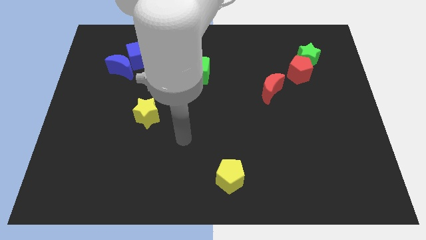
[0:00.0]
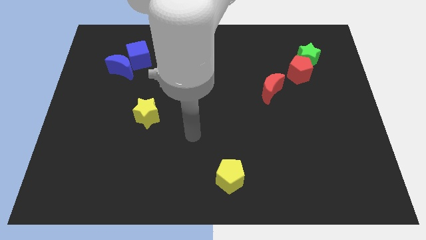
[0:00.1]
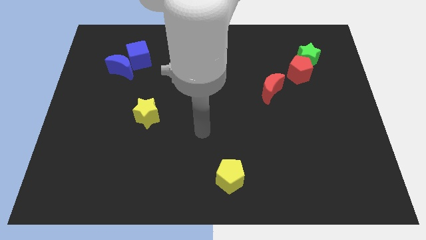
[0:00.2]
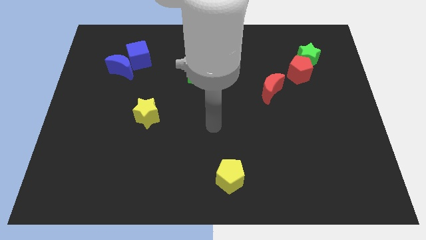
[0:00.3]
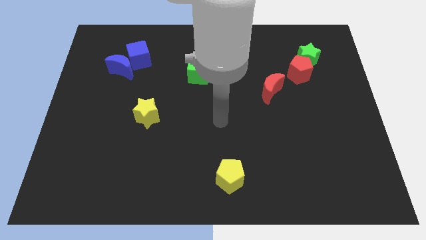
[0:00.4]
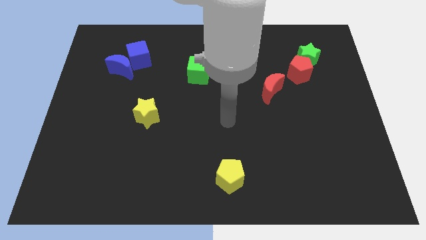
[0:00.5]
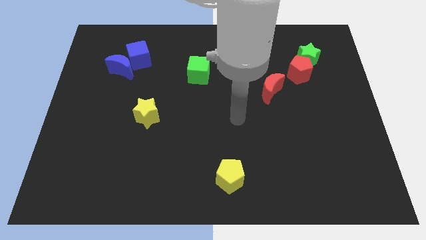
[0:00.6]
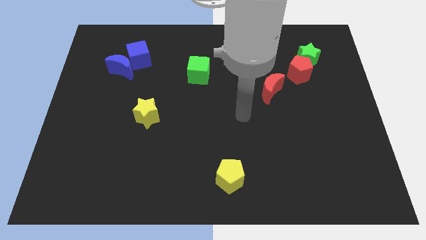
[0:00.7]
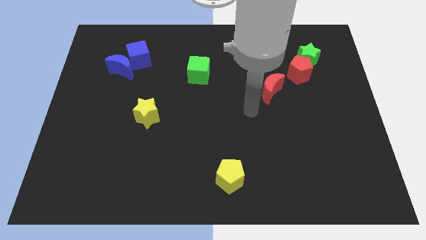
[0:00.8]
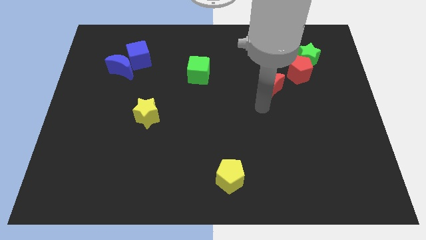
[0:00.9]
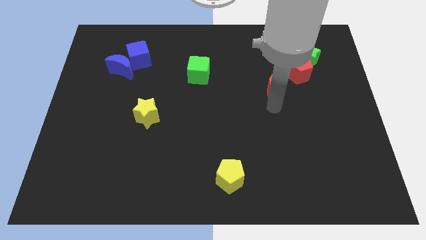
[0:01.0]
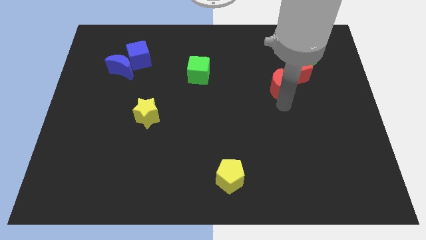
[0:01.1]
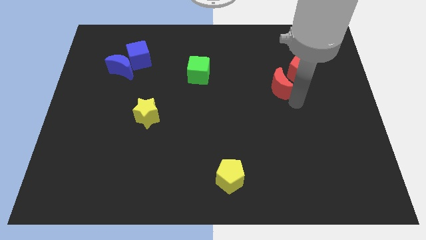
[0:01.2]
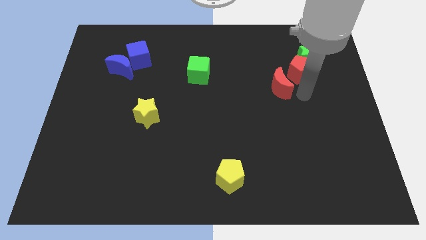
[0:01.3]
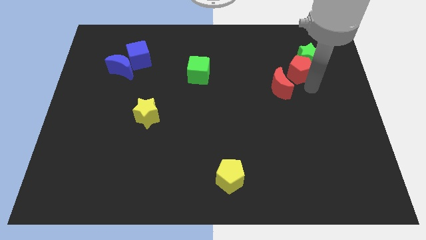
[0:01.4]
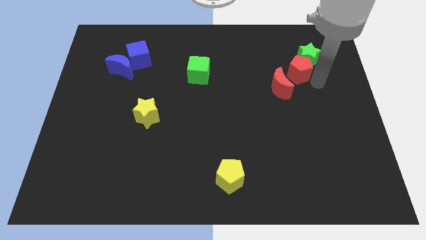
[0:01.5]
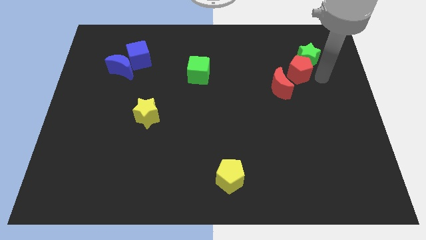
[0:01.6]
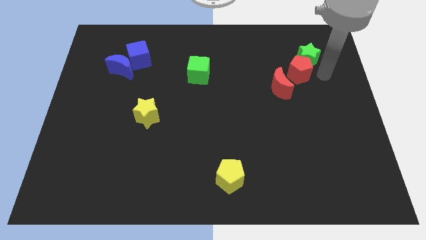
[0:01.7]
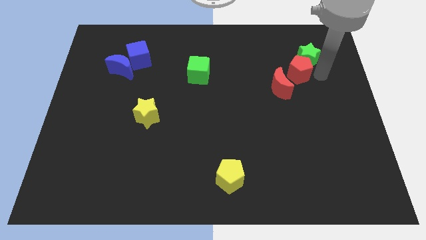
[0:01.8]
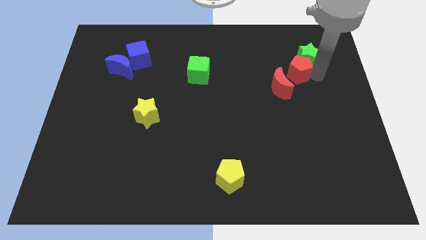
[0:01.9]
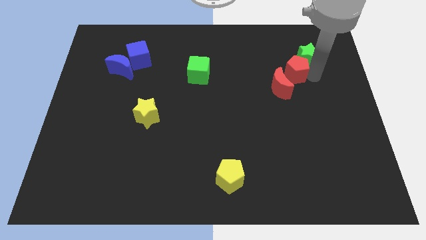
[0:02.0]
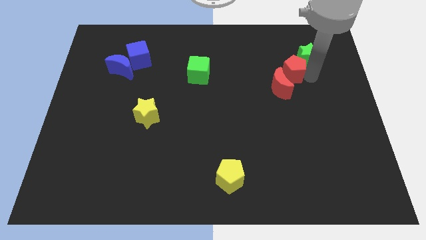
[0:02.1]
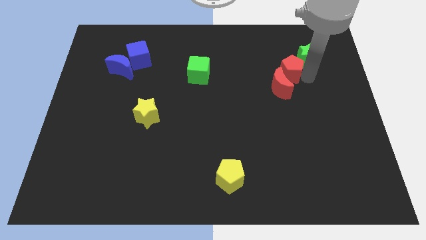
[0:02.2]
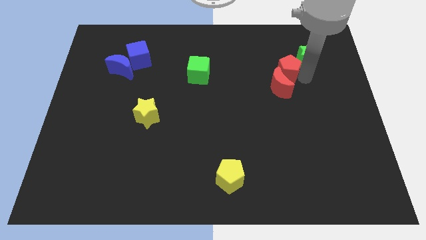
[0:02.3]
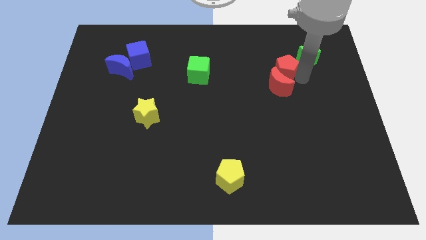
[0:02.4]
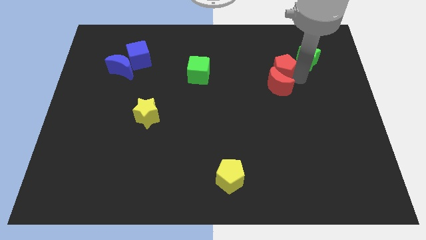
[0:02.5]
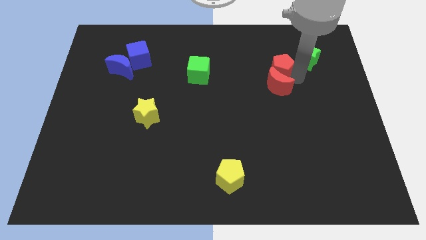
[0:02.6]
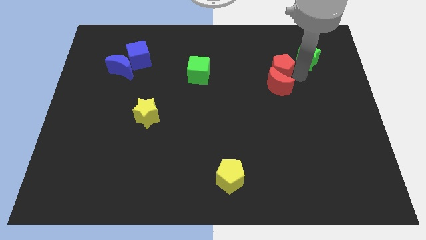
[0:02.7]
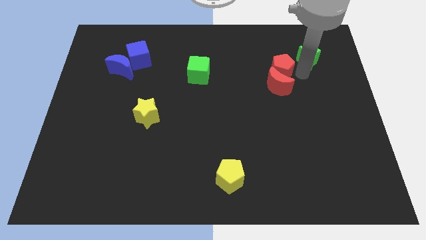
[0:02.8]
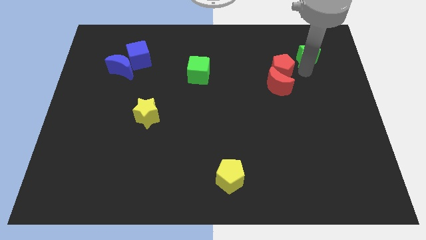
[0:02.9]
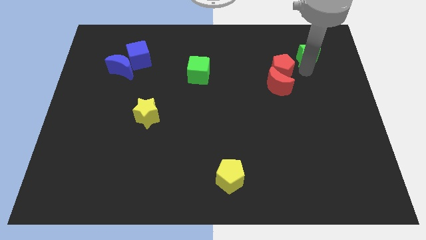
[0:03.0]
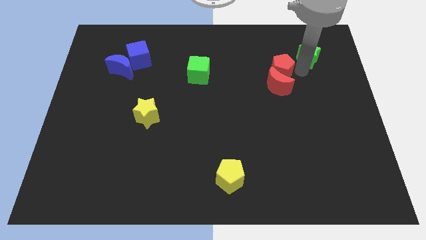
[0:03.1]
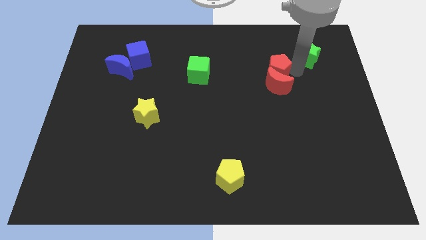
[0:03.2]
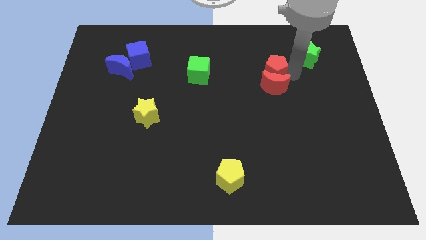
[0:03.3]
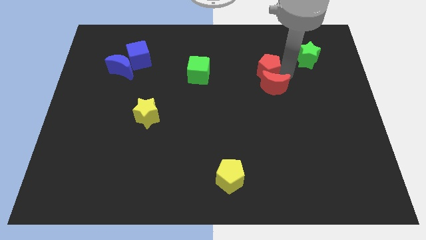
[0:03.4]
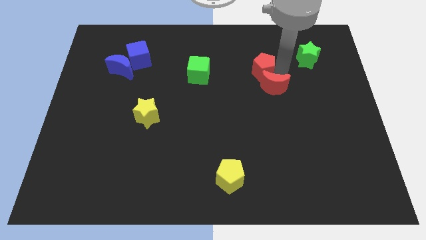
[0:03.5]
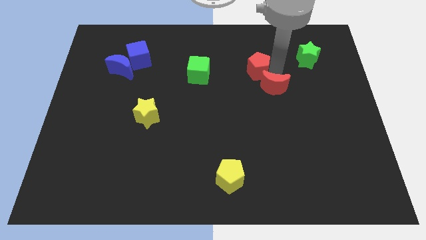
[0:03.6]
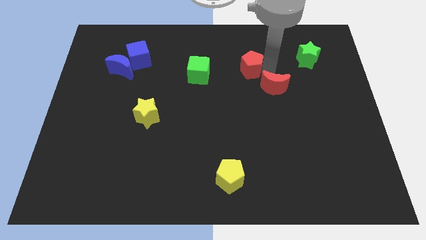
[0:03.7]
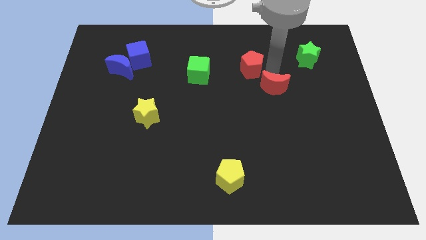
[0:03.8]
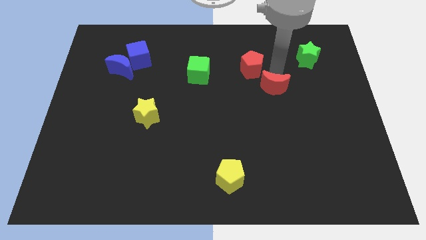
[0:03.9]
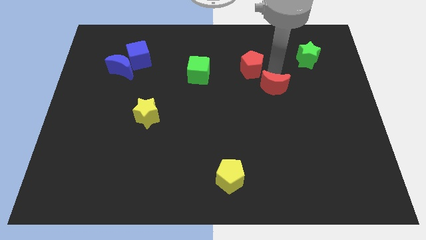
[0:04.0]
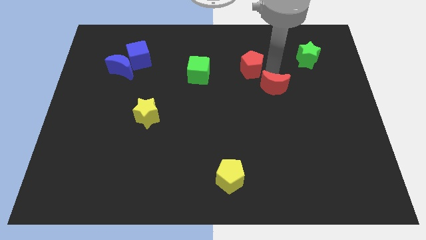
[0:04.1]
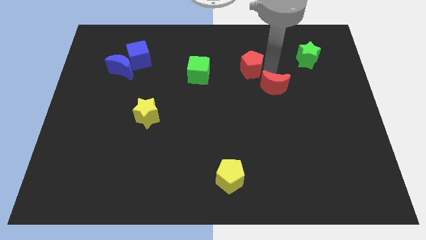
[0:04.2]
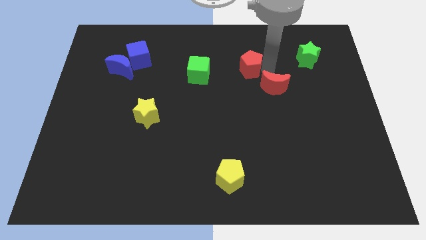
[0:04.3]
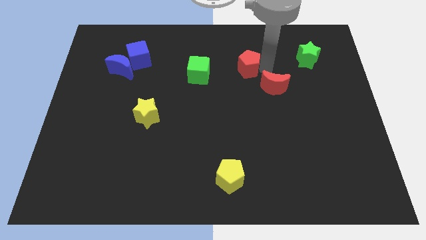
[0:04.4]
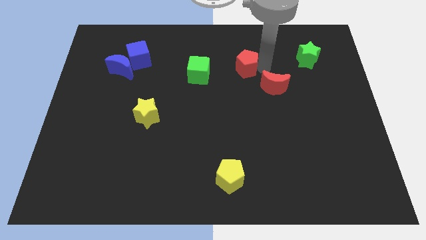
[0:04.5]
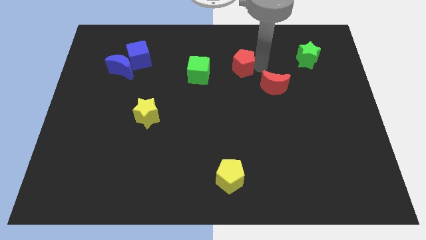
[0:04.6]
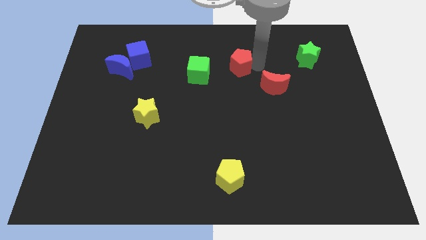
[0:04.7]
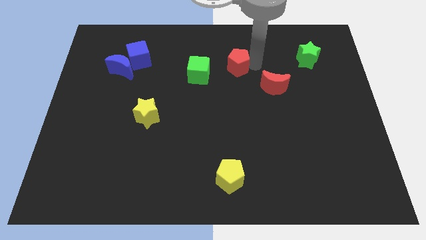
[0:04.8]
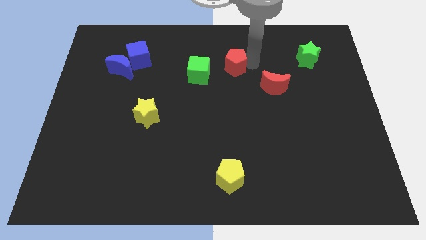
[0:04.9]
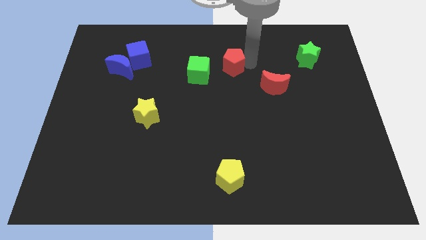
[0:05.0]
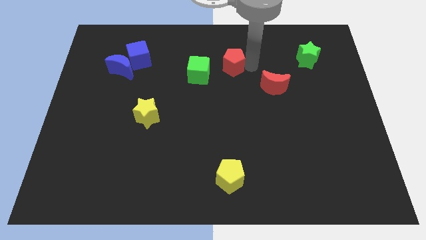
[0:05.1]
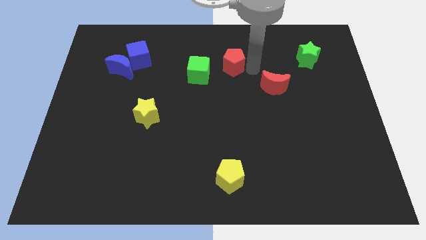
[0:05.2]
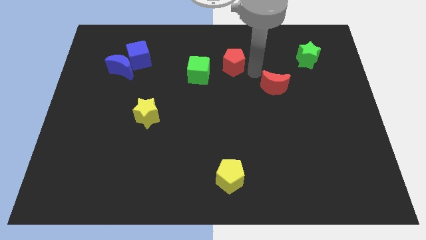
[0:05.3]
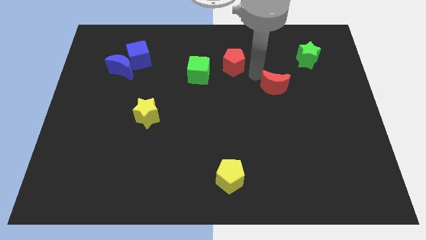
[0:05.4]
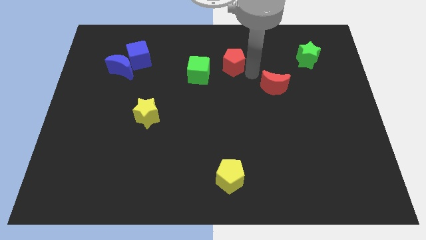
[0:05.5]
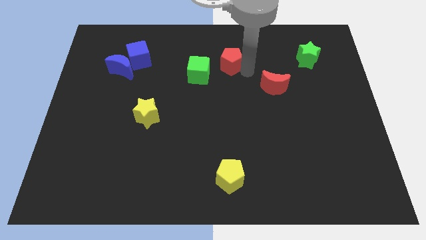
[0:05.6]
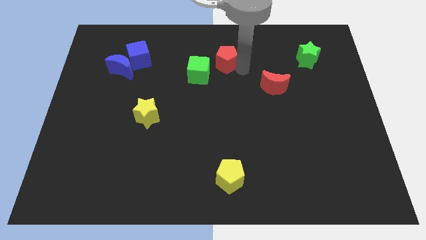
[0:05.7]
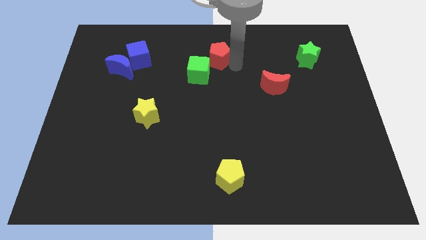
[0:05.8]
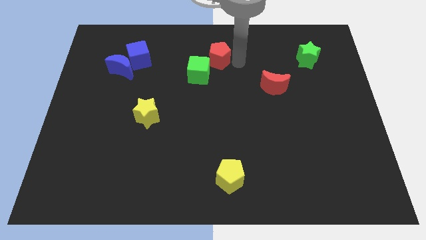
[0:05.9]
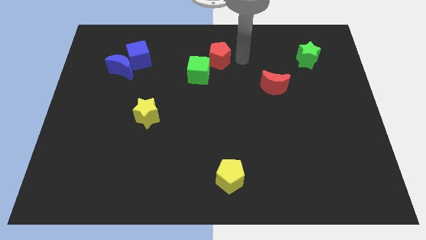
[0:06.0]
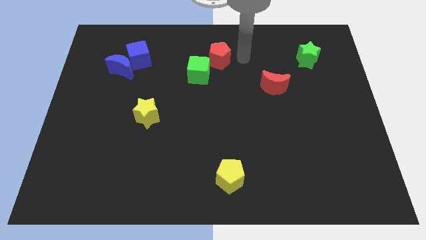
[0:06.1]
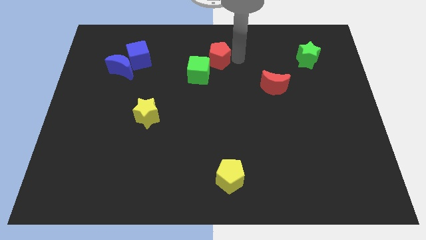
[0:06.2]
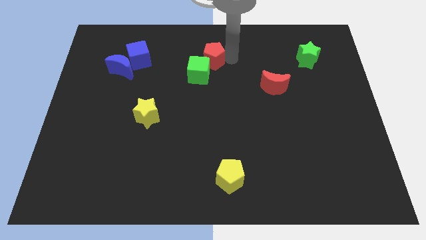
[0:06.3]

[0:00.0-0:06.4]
move the red pentagon left

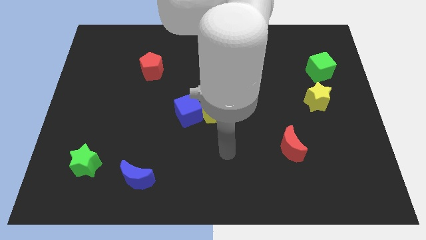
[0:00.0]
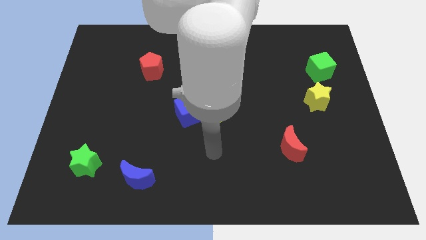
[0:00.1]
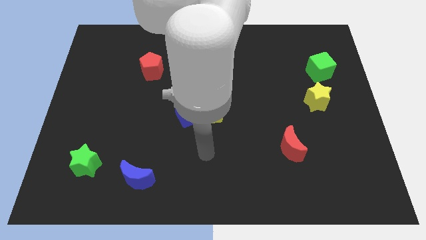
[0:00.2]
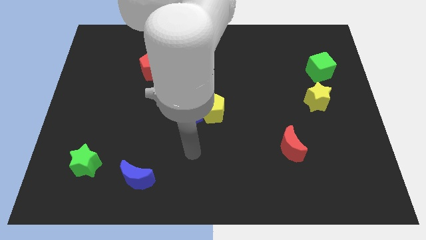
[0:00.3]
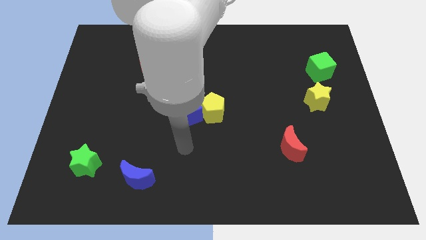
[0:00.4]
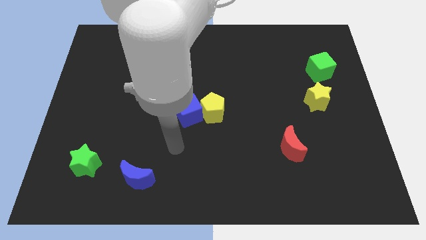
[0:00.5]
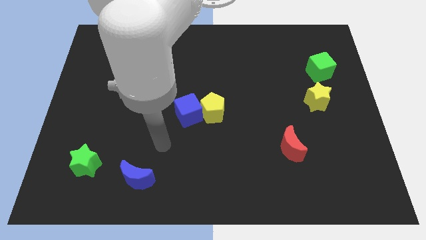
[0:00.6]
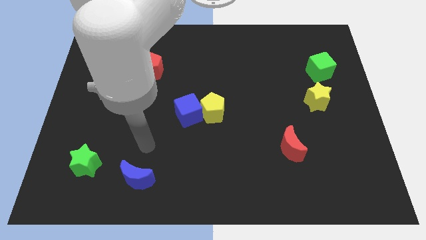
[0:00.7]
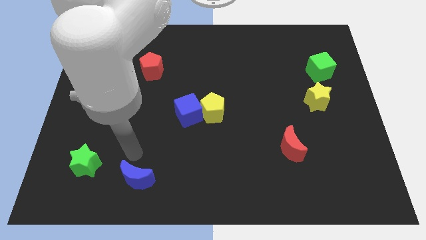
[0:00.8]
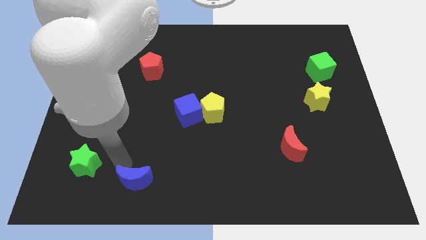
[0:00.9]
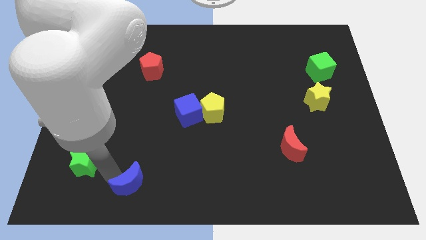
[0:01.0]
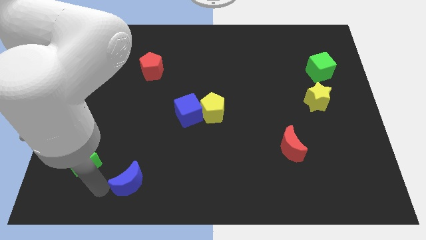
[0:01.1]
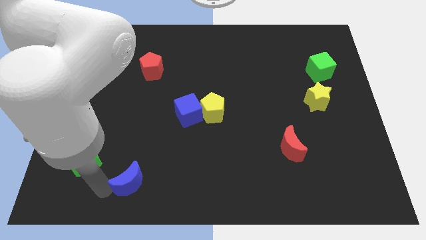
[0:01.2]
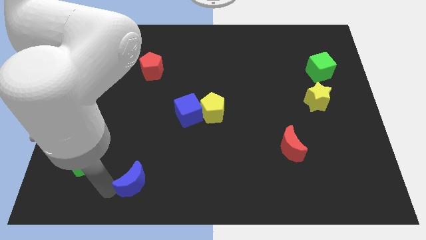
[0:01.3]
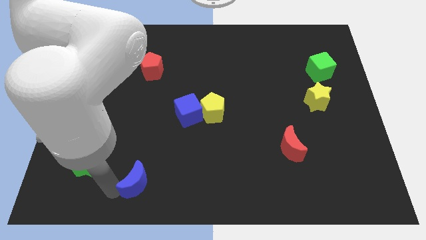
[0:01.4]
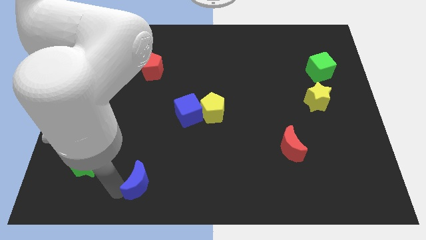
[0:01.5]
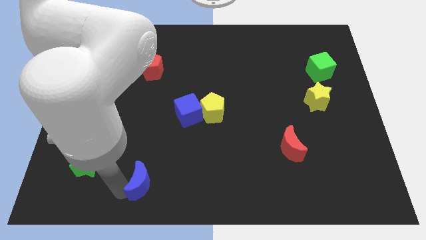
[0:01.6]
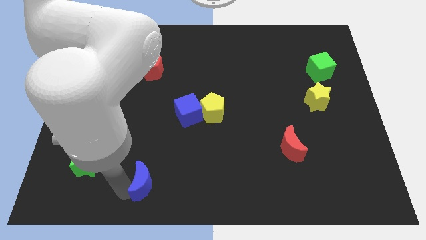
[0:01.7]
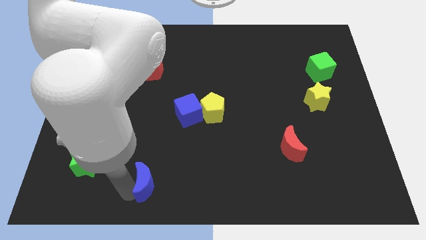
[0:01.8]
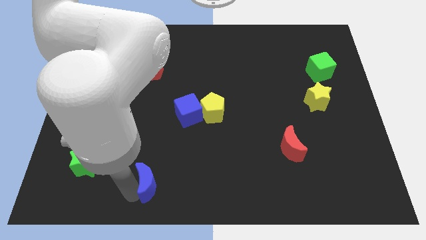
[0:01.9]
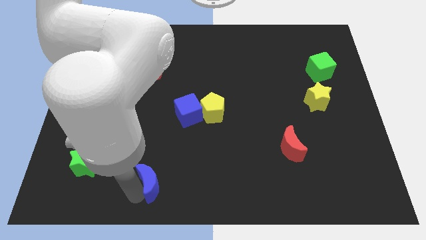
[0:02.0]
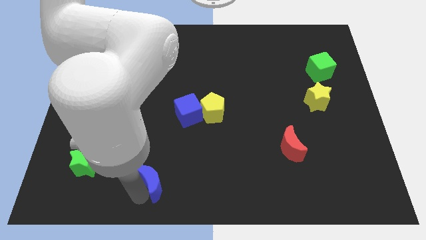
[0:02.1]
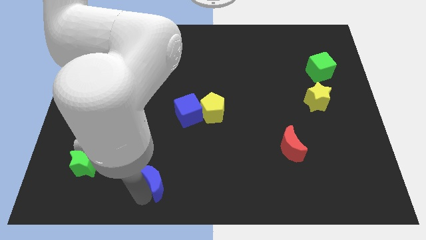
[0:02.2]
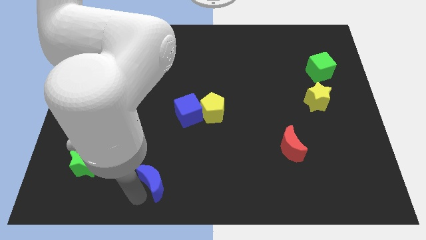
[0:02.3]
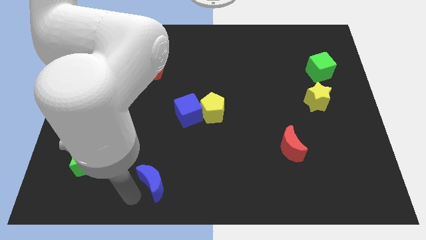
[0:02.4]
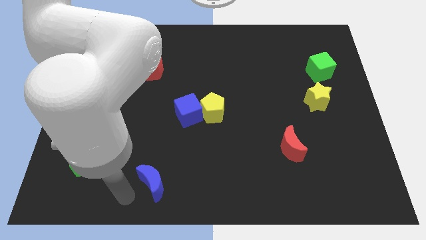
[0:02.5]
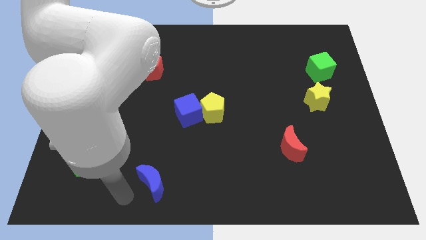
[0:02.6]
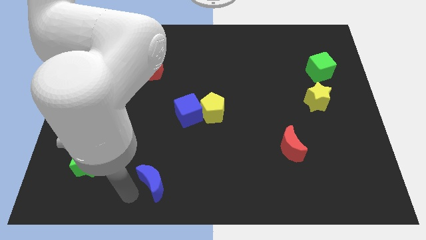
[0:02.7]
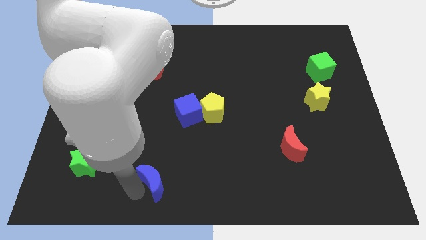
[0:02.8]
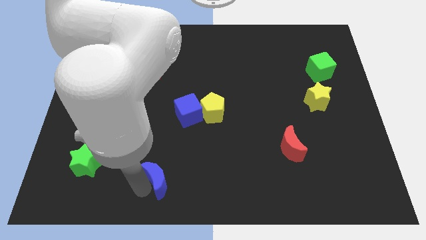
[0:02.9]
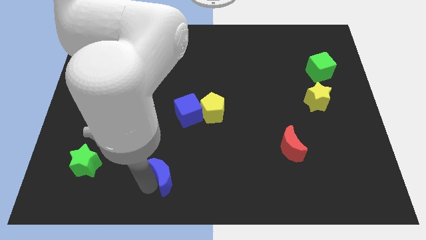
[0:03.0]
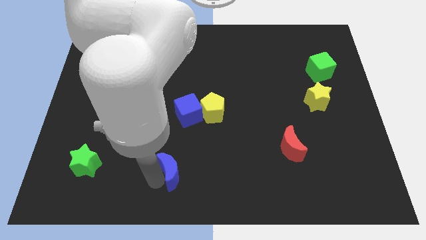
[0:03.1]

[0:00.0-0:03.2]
push the blue moon somewhat right
